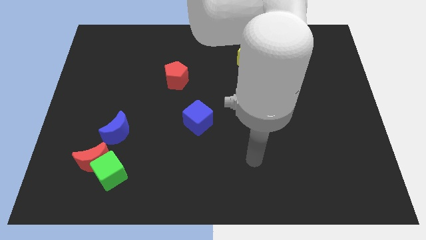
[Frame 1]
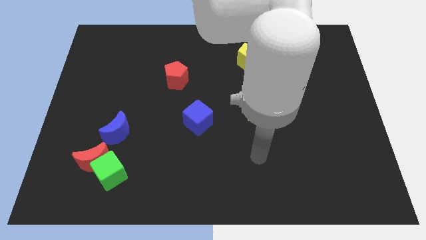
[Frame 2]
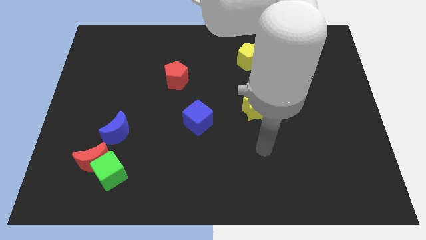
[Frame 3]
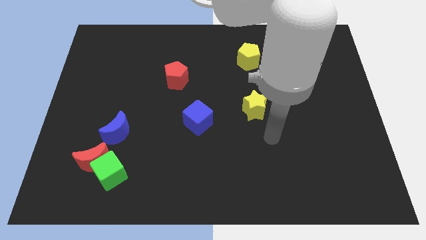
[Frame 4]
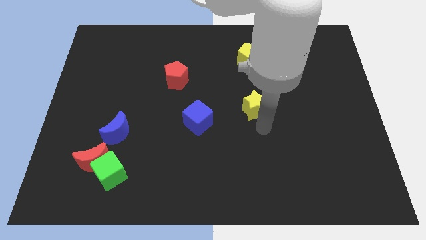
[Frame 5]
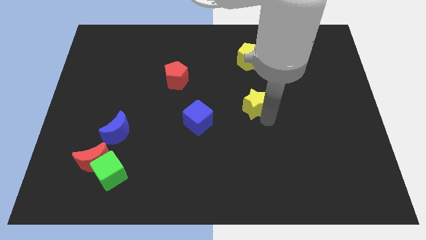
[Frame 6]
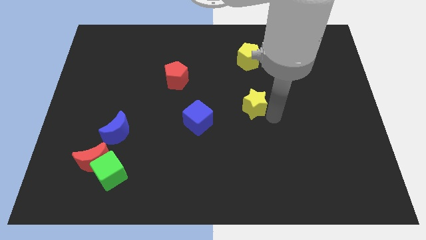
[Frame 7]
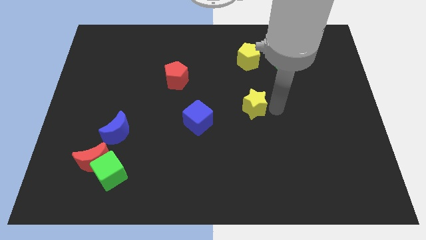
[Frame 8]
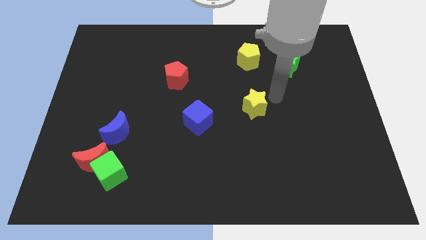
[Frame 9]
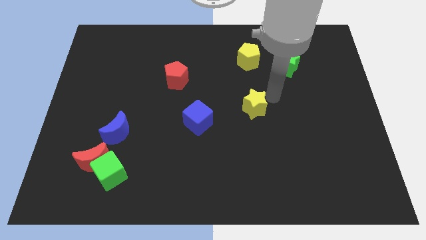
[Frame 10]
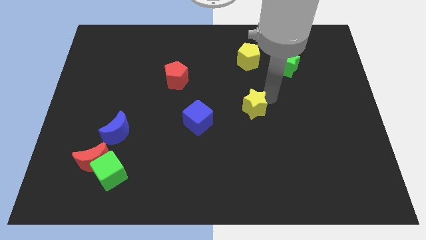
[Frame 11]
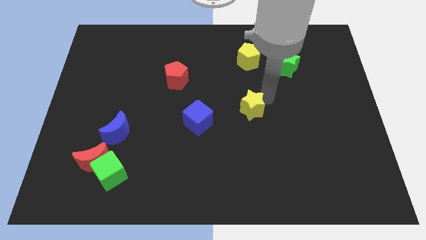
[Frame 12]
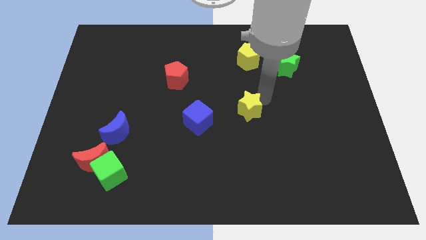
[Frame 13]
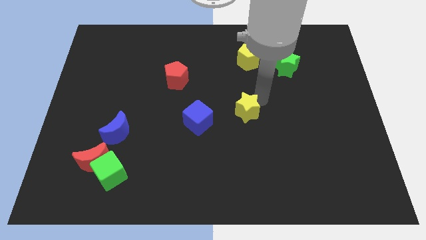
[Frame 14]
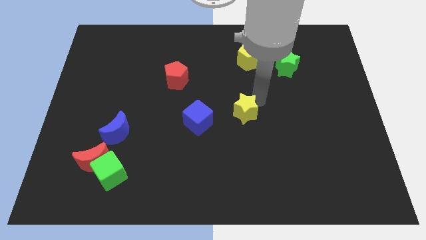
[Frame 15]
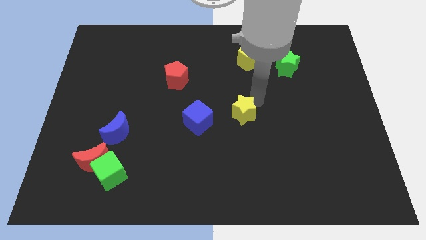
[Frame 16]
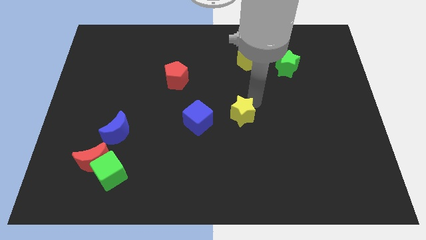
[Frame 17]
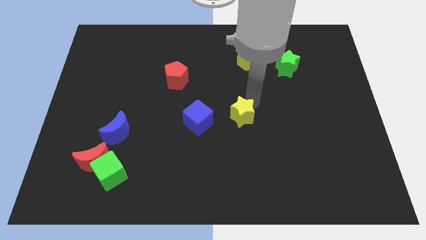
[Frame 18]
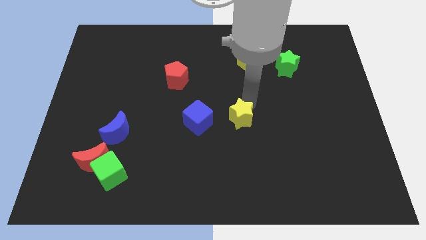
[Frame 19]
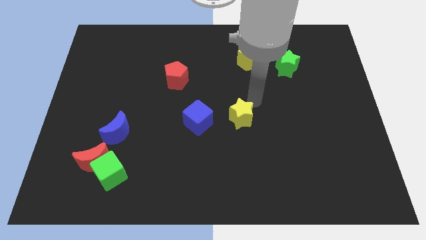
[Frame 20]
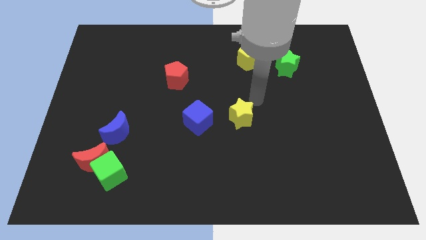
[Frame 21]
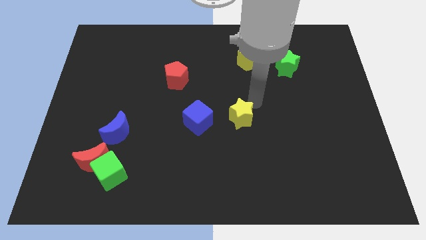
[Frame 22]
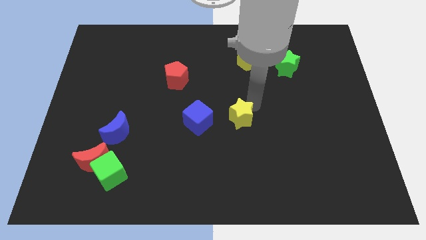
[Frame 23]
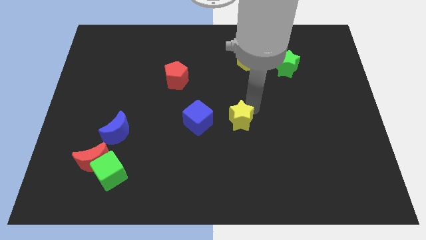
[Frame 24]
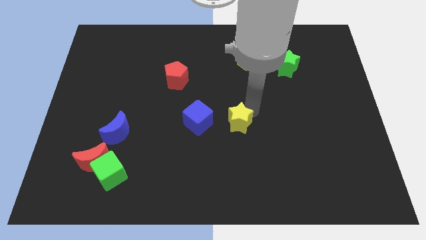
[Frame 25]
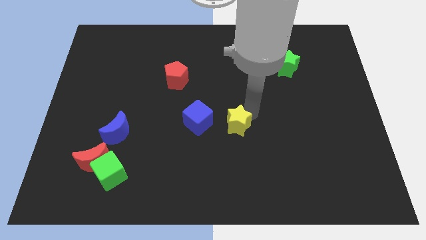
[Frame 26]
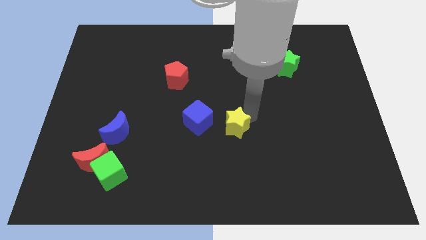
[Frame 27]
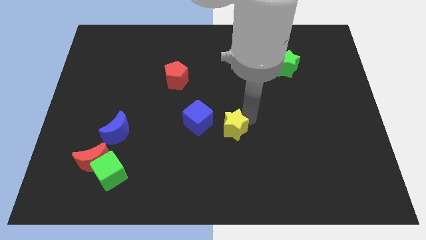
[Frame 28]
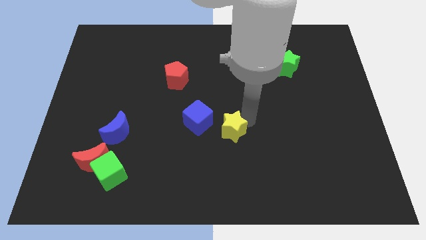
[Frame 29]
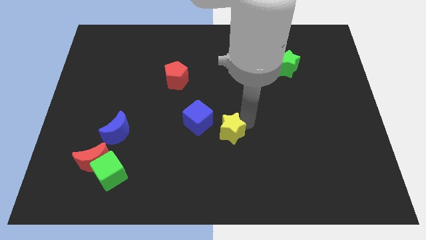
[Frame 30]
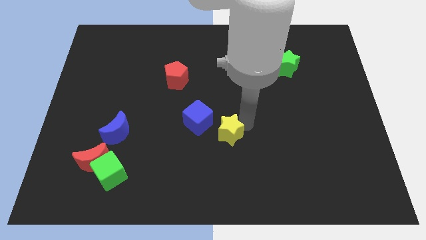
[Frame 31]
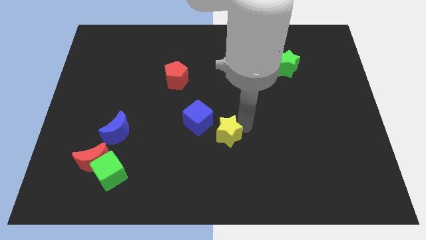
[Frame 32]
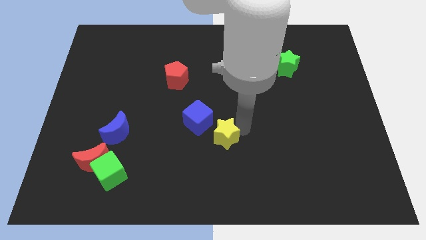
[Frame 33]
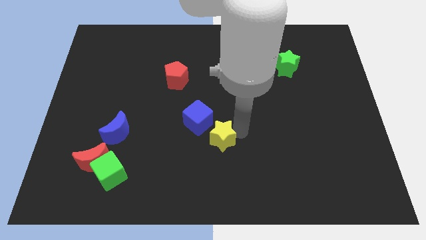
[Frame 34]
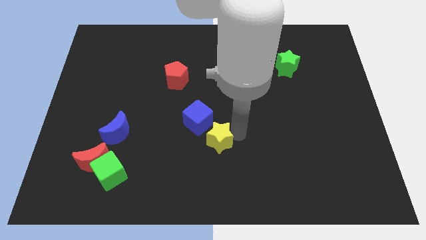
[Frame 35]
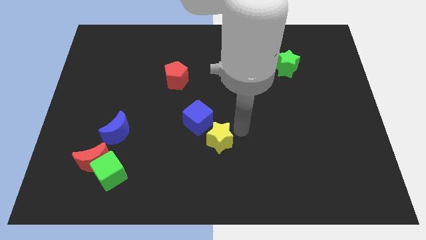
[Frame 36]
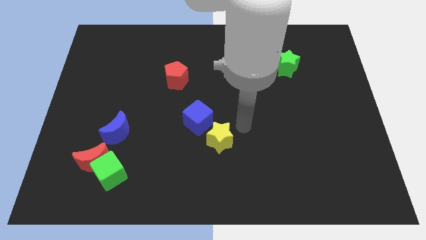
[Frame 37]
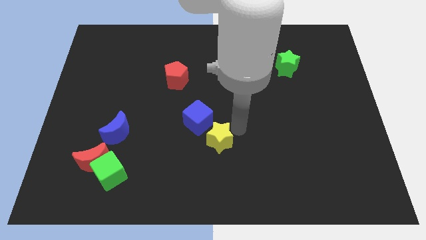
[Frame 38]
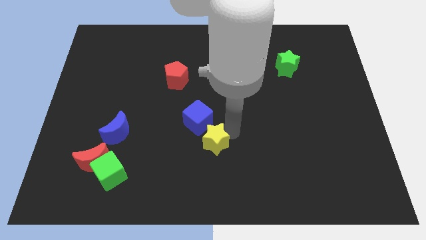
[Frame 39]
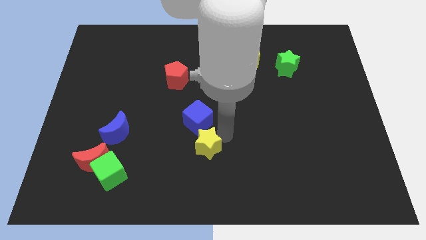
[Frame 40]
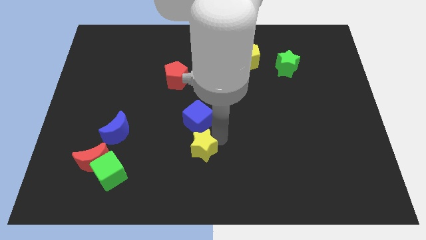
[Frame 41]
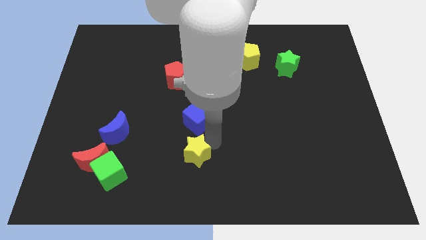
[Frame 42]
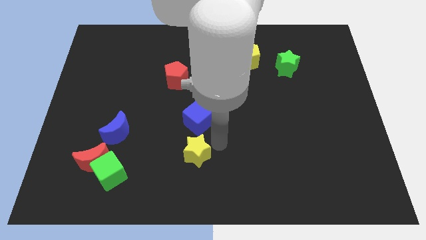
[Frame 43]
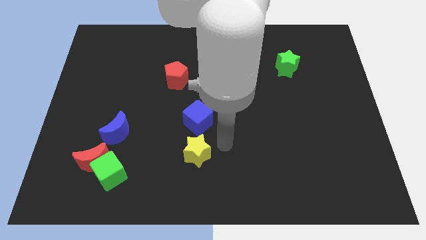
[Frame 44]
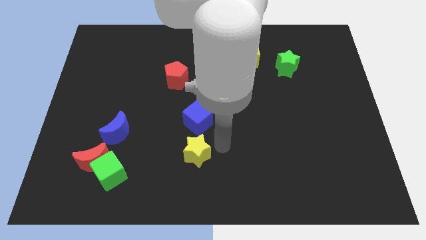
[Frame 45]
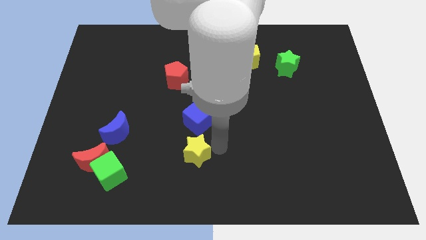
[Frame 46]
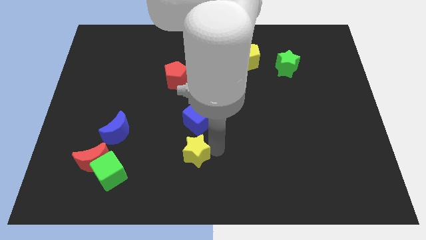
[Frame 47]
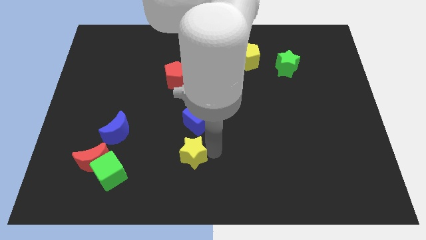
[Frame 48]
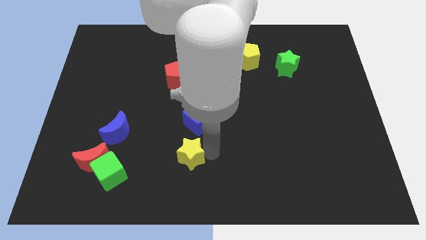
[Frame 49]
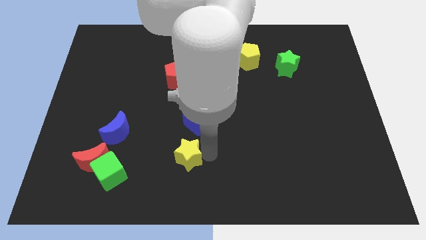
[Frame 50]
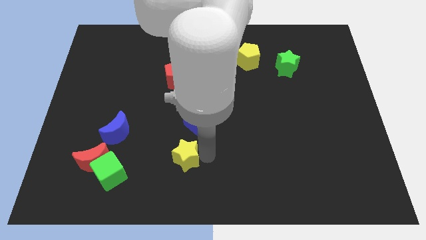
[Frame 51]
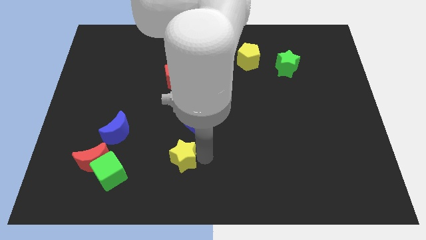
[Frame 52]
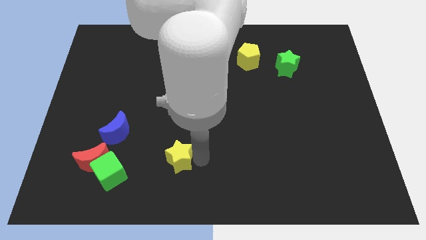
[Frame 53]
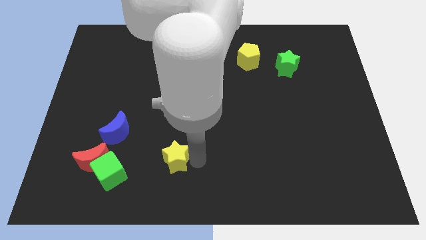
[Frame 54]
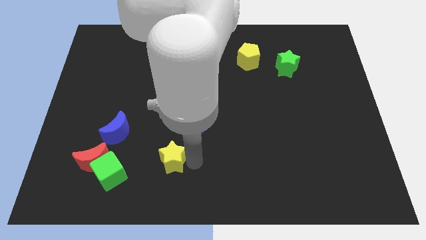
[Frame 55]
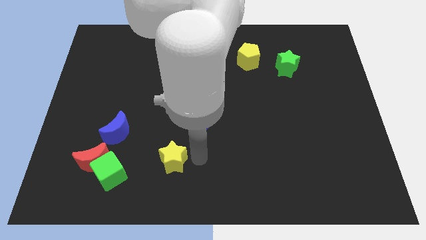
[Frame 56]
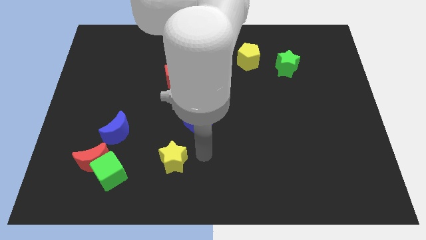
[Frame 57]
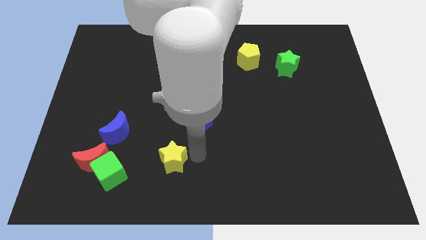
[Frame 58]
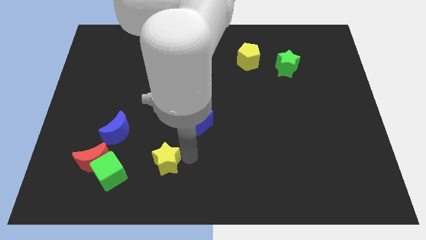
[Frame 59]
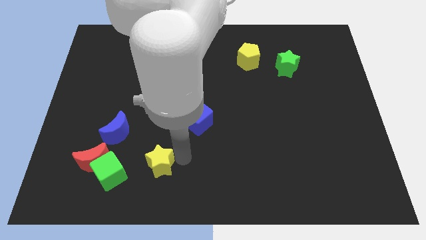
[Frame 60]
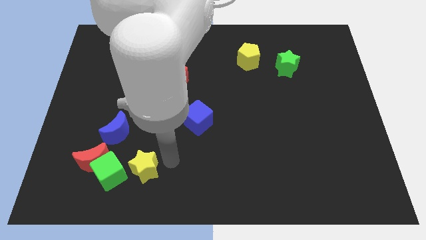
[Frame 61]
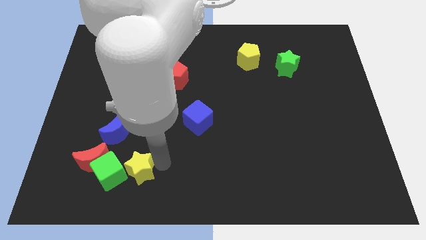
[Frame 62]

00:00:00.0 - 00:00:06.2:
move the yellow star towards the green cube
